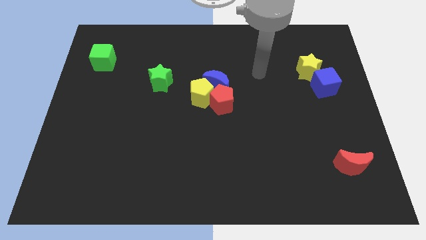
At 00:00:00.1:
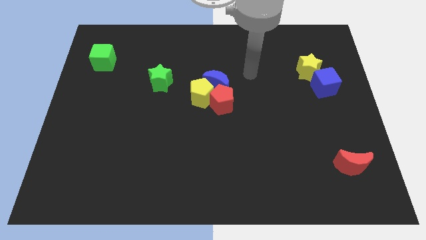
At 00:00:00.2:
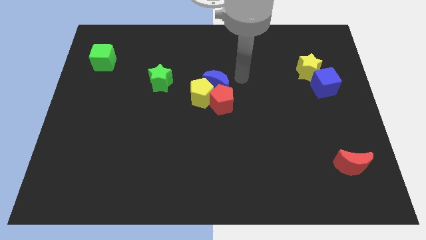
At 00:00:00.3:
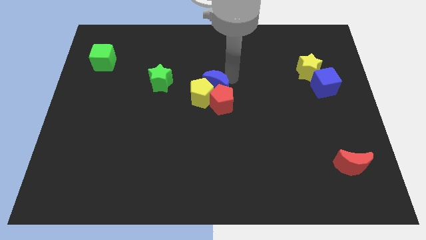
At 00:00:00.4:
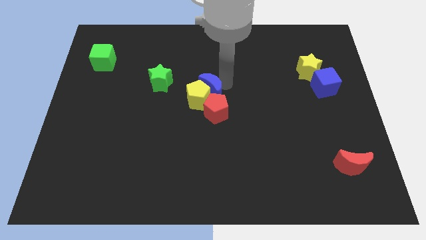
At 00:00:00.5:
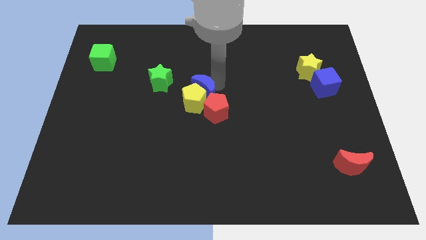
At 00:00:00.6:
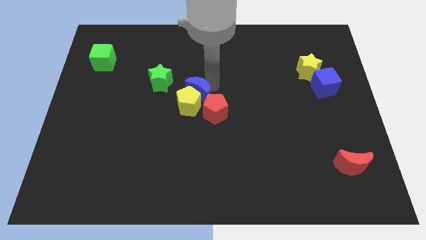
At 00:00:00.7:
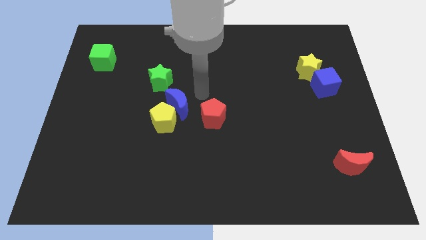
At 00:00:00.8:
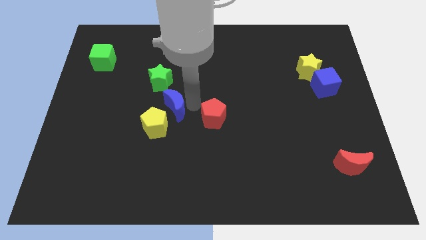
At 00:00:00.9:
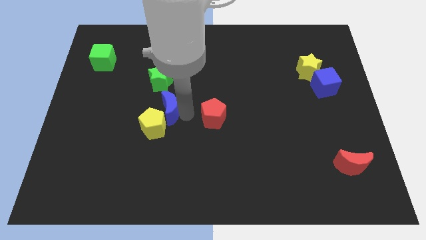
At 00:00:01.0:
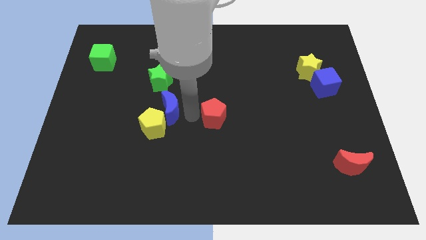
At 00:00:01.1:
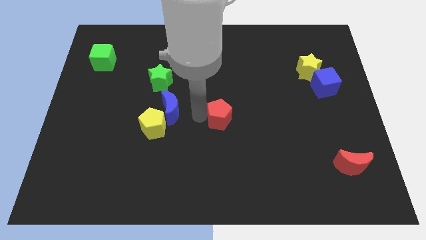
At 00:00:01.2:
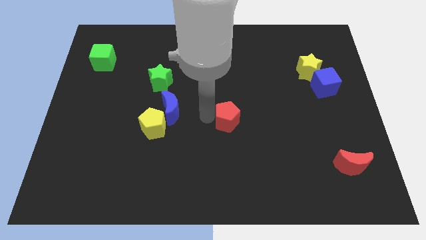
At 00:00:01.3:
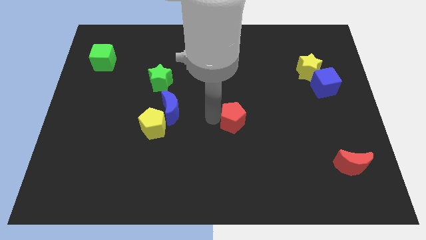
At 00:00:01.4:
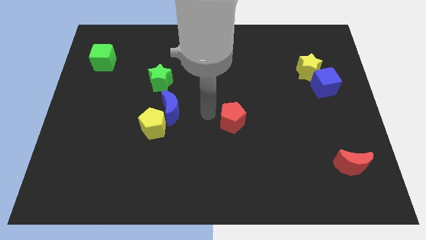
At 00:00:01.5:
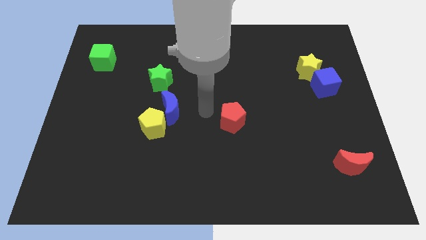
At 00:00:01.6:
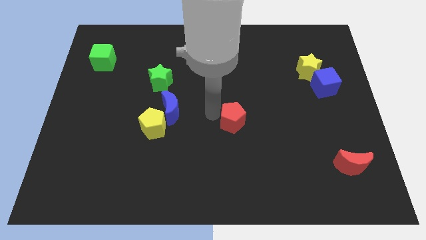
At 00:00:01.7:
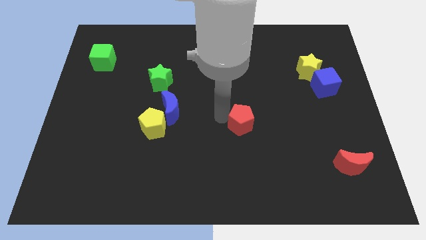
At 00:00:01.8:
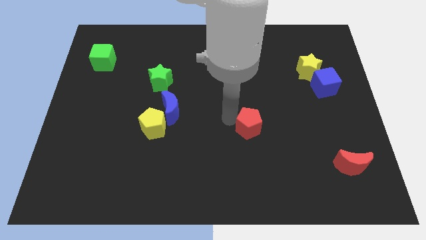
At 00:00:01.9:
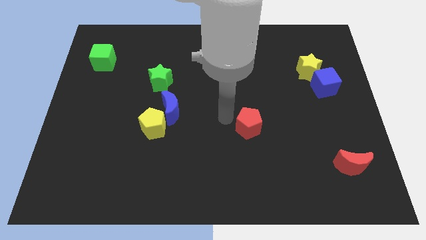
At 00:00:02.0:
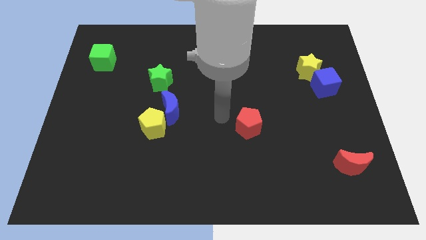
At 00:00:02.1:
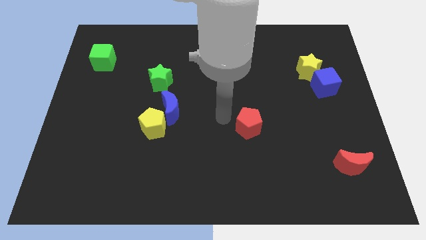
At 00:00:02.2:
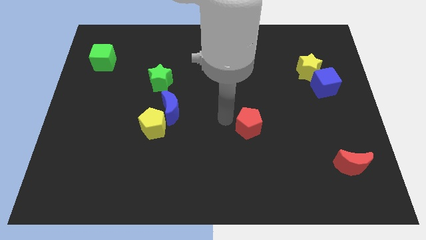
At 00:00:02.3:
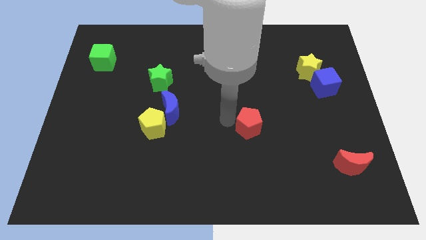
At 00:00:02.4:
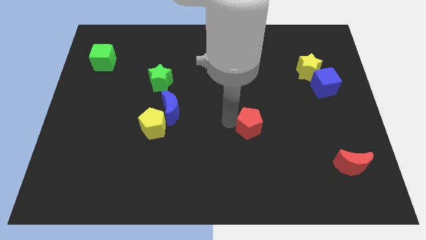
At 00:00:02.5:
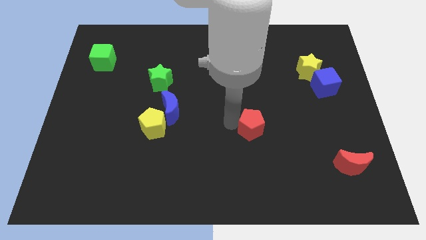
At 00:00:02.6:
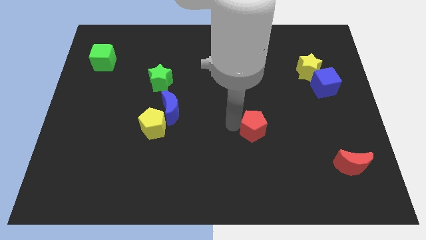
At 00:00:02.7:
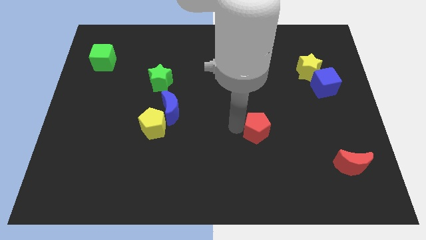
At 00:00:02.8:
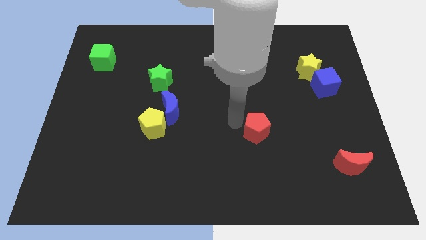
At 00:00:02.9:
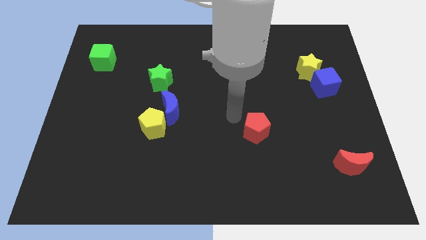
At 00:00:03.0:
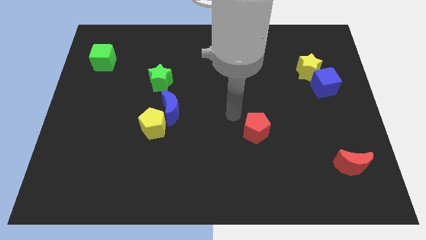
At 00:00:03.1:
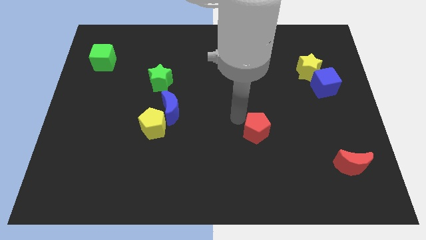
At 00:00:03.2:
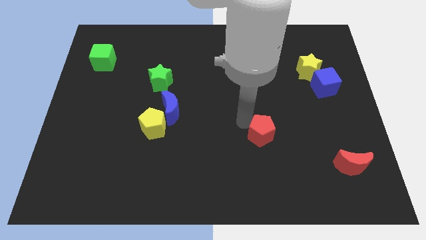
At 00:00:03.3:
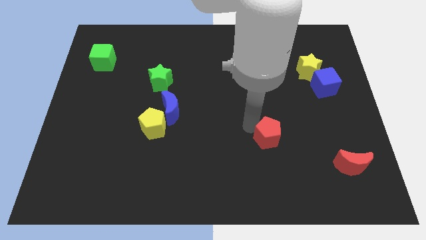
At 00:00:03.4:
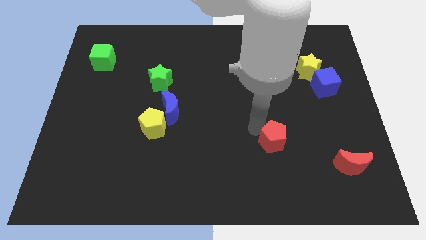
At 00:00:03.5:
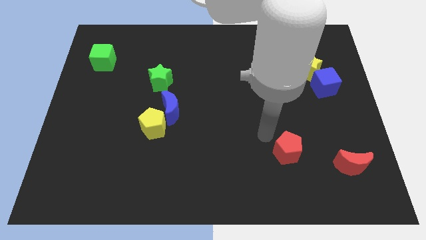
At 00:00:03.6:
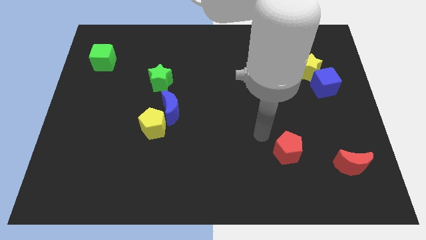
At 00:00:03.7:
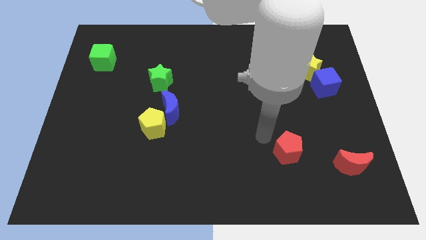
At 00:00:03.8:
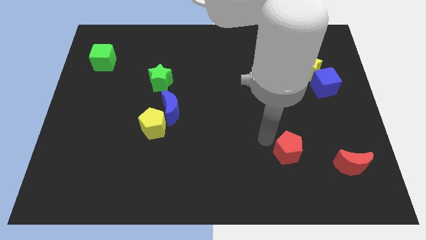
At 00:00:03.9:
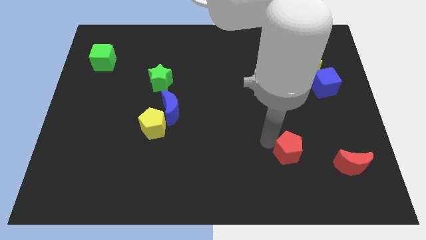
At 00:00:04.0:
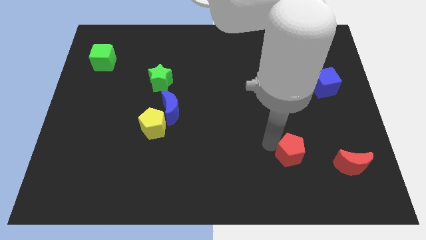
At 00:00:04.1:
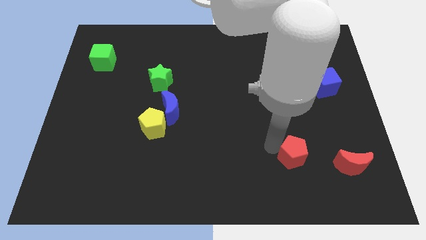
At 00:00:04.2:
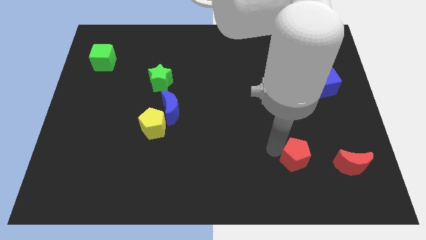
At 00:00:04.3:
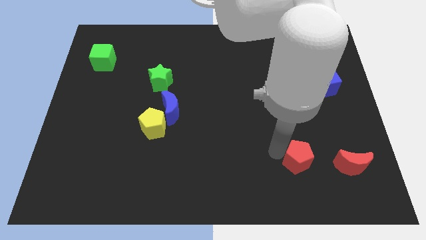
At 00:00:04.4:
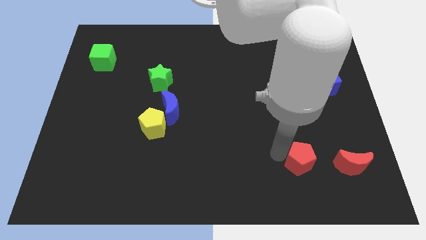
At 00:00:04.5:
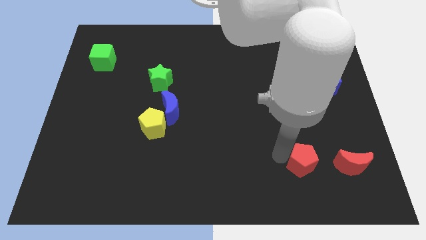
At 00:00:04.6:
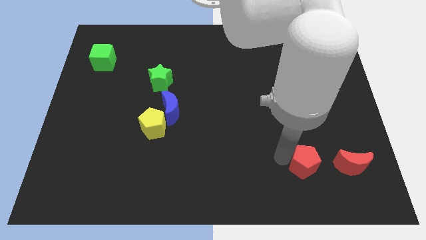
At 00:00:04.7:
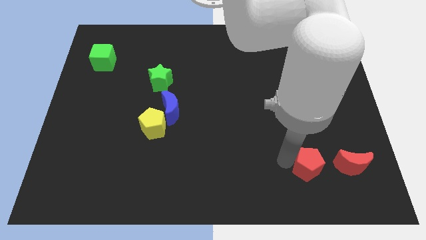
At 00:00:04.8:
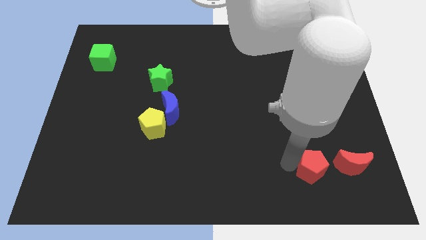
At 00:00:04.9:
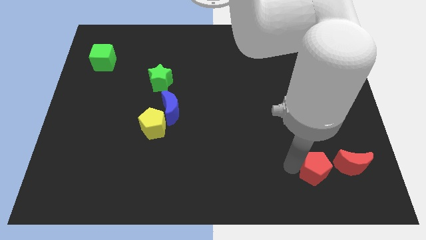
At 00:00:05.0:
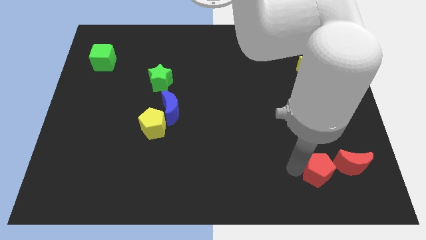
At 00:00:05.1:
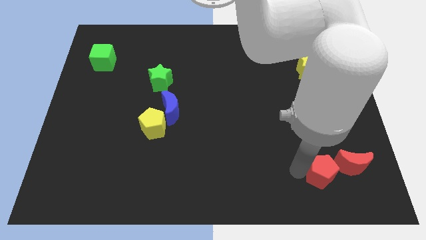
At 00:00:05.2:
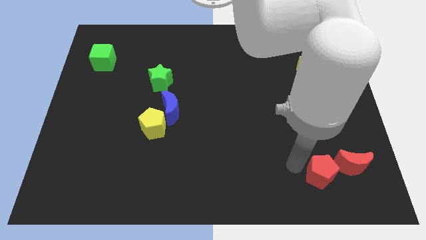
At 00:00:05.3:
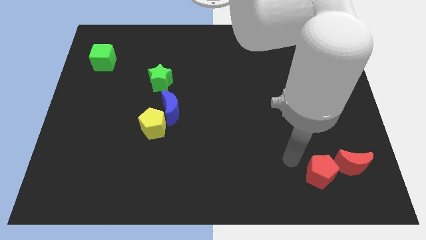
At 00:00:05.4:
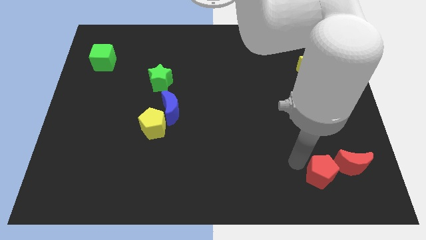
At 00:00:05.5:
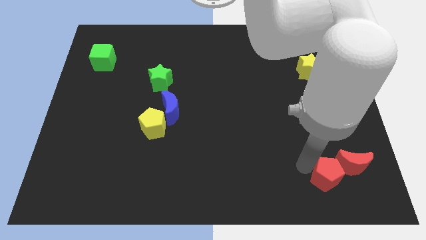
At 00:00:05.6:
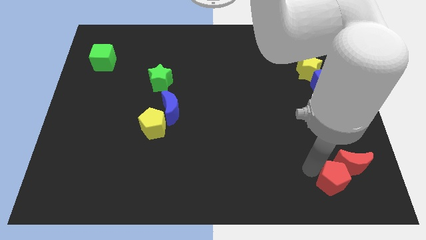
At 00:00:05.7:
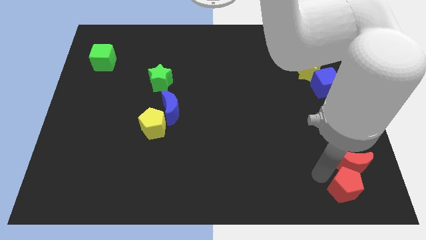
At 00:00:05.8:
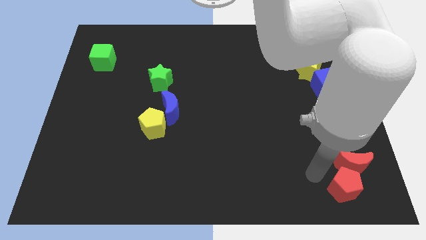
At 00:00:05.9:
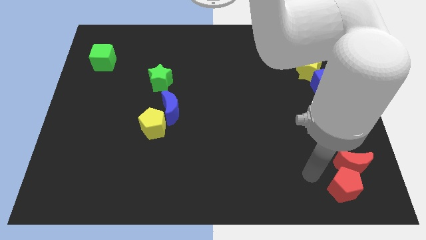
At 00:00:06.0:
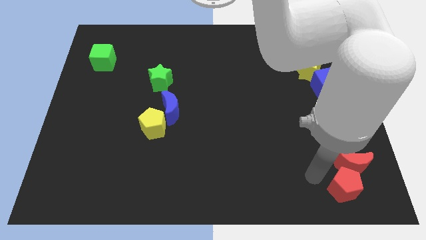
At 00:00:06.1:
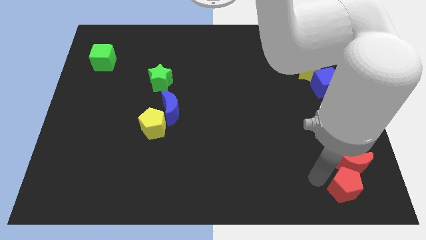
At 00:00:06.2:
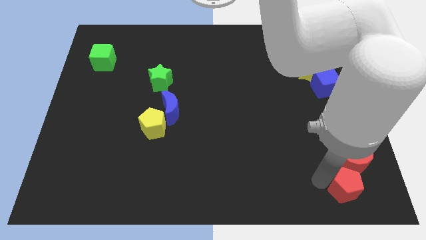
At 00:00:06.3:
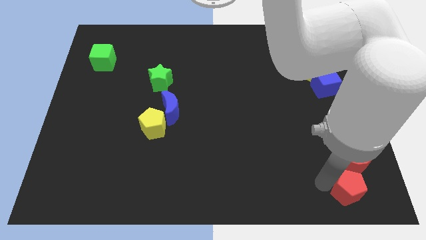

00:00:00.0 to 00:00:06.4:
push the red pentagon to the bottom right corner

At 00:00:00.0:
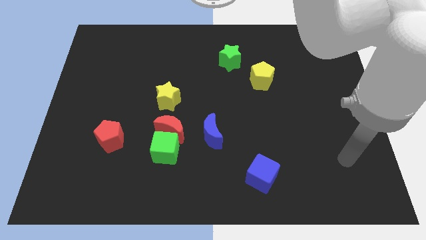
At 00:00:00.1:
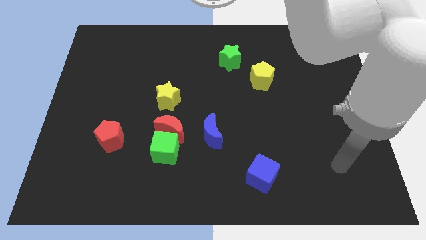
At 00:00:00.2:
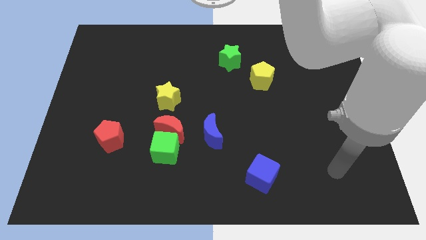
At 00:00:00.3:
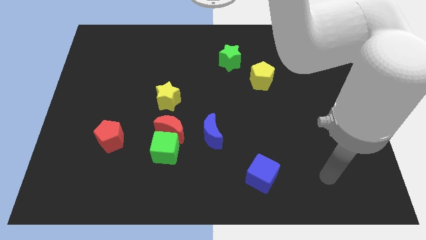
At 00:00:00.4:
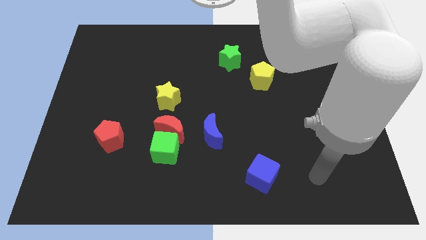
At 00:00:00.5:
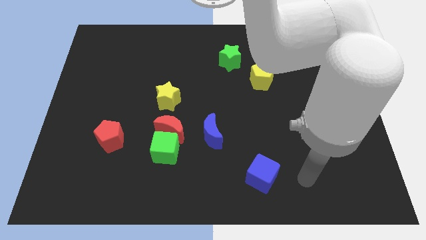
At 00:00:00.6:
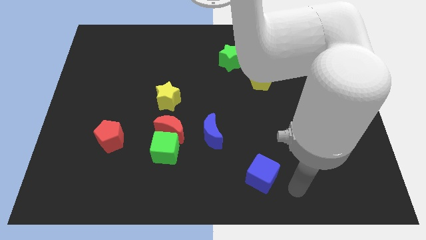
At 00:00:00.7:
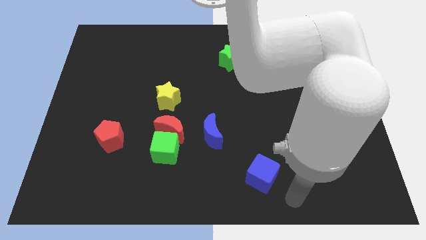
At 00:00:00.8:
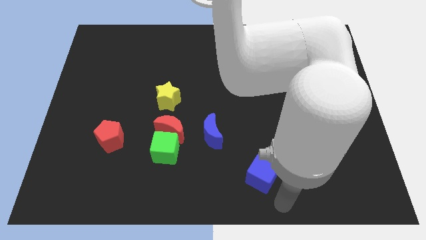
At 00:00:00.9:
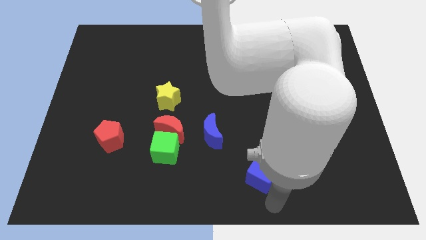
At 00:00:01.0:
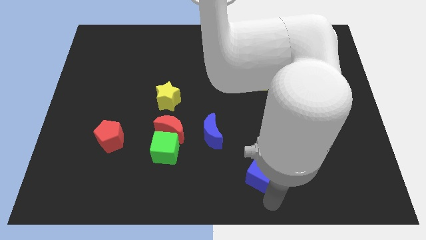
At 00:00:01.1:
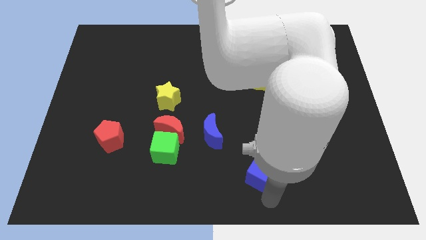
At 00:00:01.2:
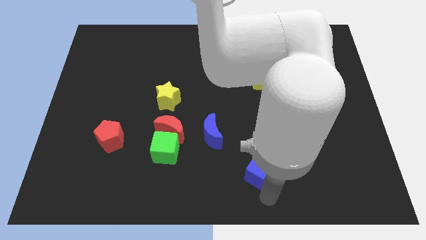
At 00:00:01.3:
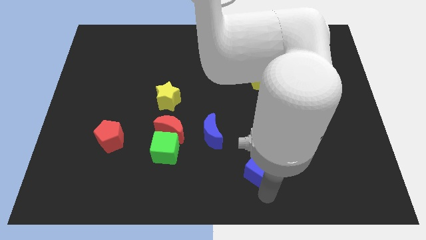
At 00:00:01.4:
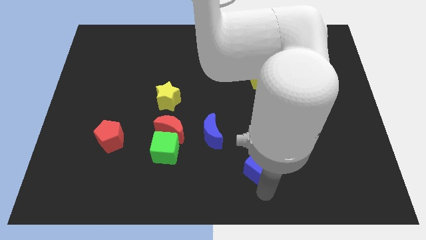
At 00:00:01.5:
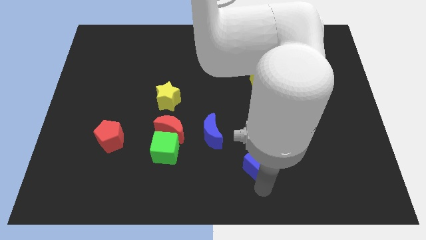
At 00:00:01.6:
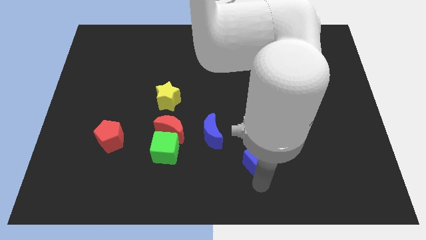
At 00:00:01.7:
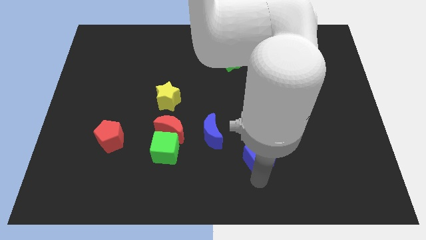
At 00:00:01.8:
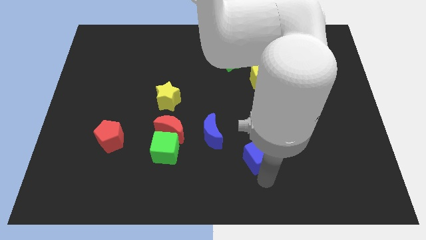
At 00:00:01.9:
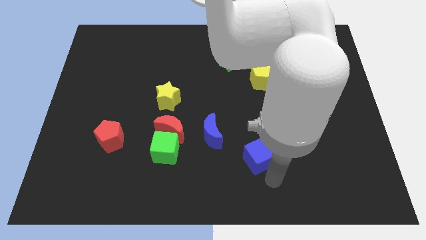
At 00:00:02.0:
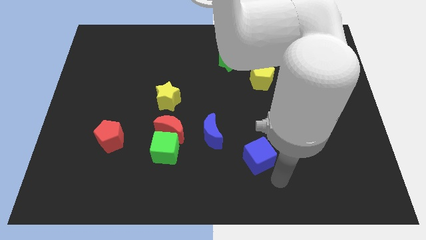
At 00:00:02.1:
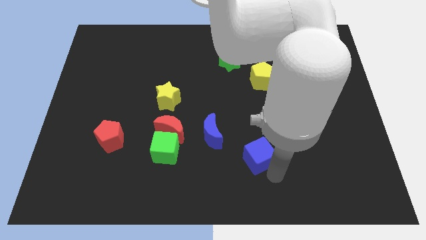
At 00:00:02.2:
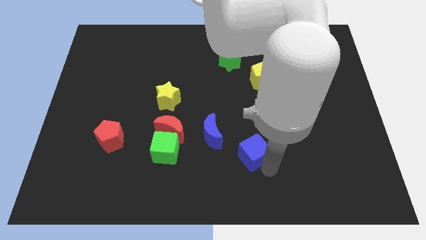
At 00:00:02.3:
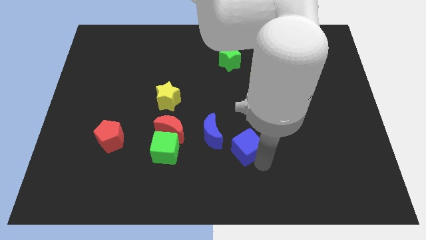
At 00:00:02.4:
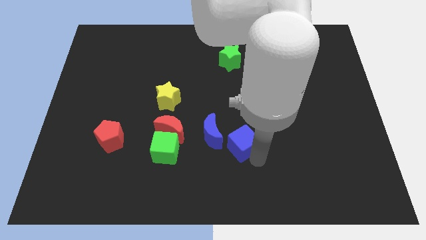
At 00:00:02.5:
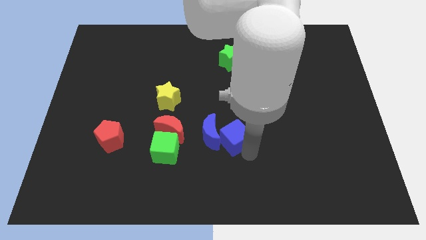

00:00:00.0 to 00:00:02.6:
push the blue cube to the middle of the board
